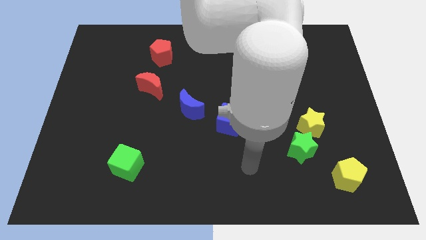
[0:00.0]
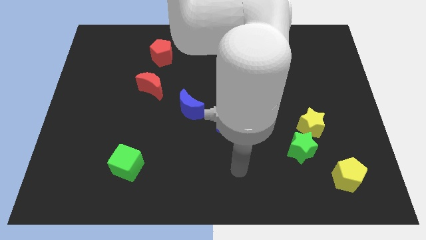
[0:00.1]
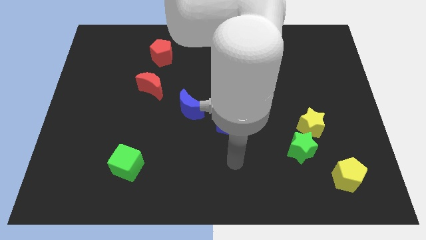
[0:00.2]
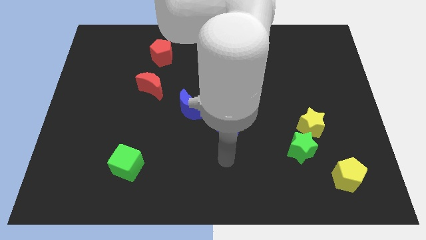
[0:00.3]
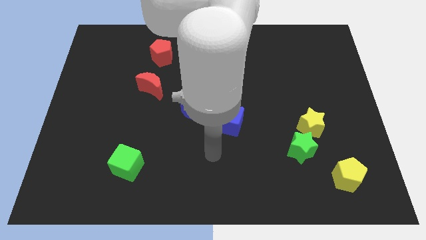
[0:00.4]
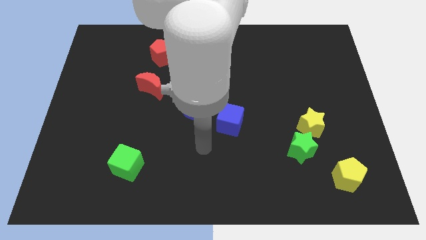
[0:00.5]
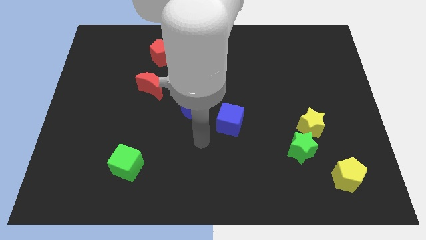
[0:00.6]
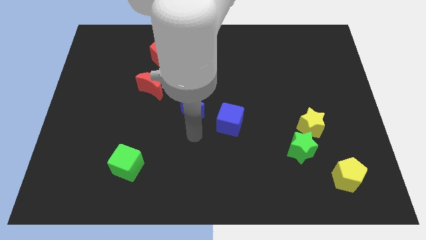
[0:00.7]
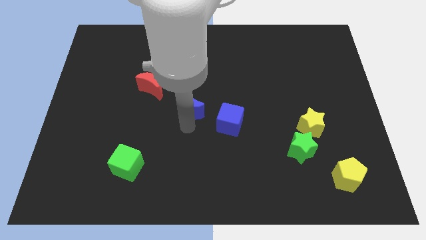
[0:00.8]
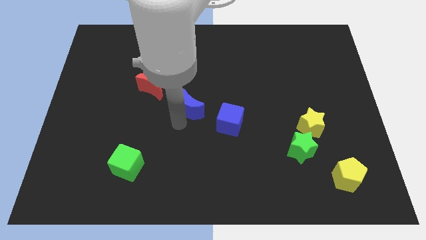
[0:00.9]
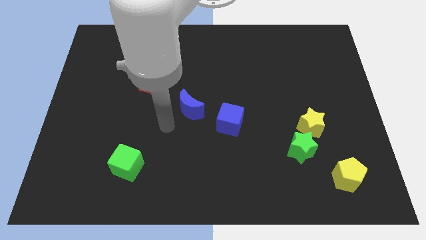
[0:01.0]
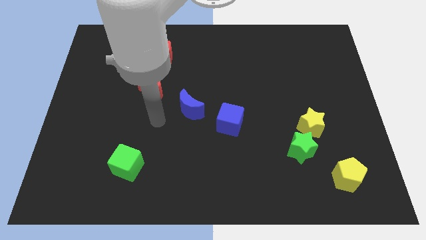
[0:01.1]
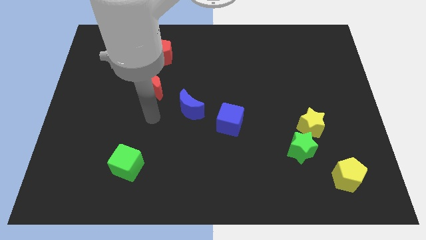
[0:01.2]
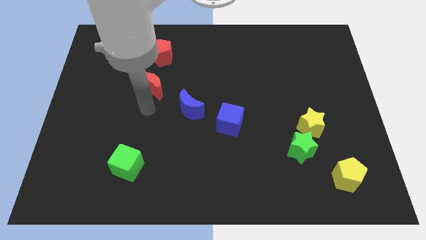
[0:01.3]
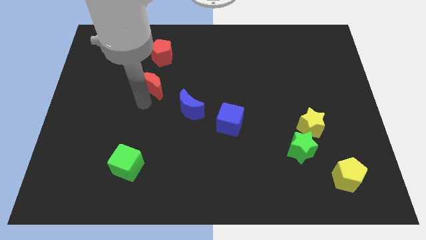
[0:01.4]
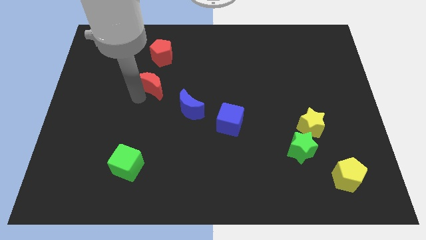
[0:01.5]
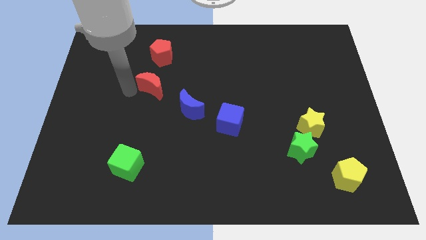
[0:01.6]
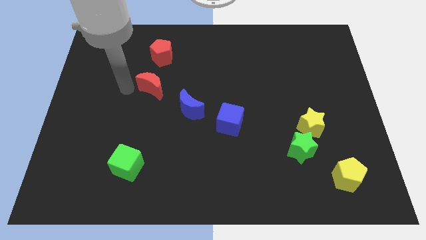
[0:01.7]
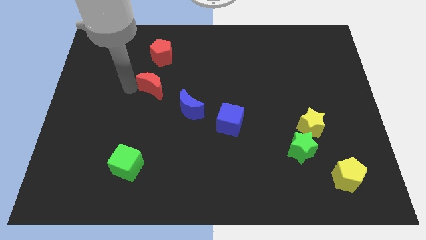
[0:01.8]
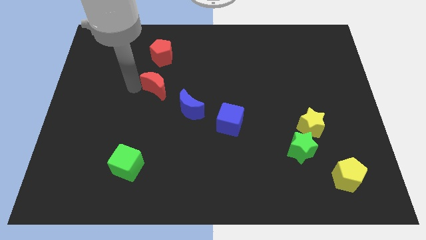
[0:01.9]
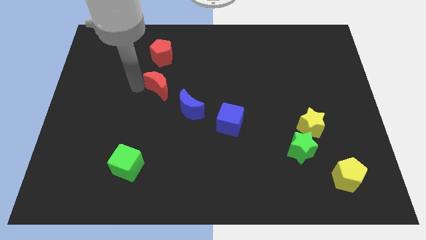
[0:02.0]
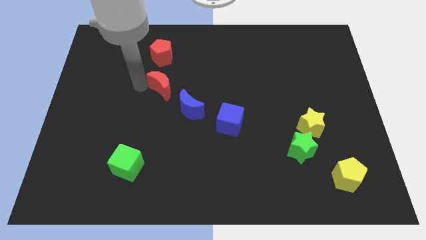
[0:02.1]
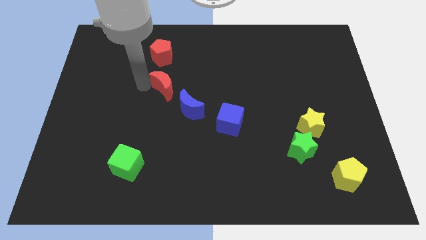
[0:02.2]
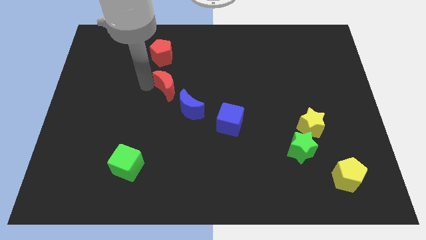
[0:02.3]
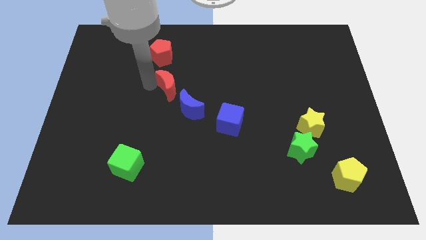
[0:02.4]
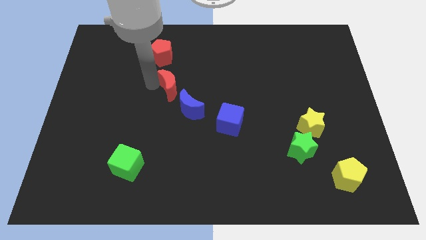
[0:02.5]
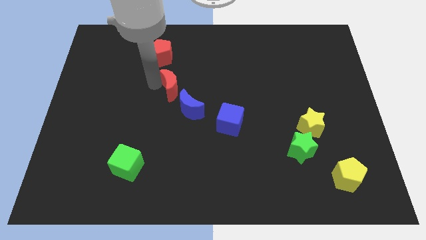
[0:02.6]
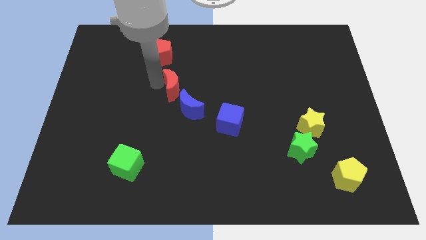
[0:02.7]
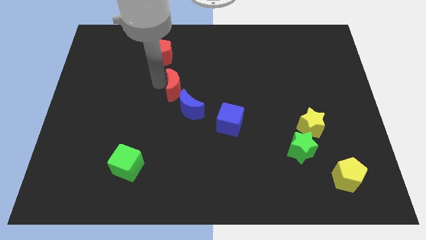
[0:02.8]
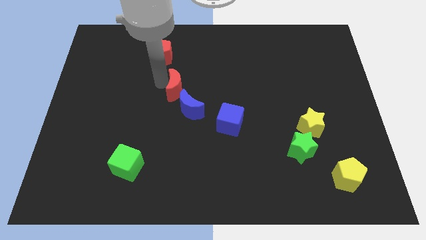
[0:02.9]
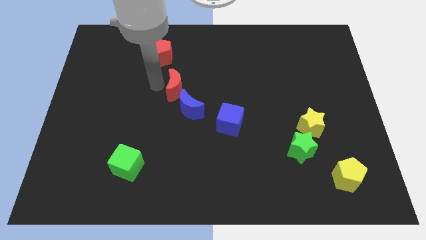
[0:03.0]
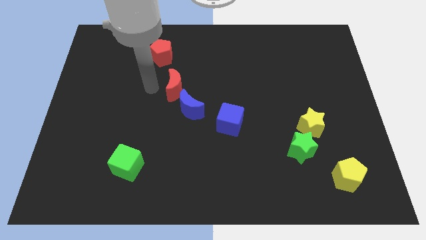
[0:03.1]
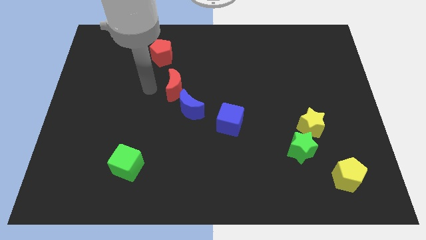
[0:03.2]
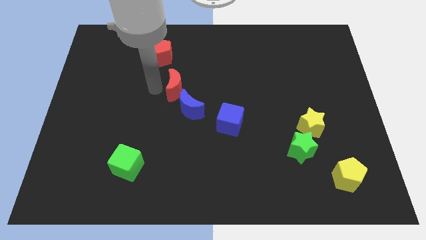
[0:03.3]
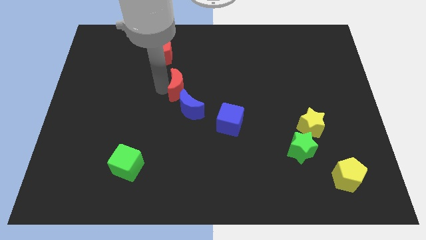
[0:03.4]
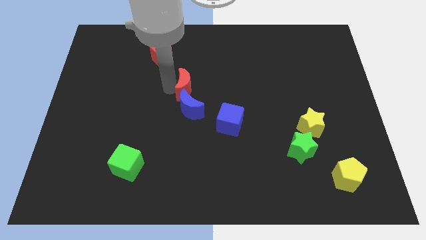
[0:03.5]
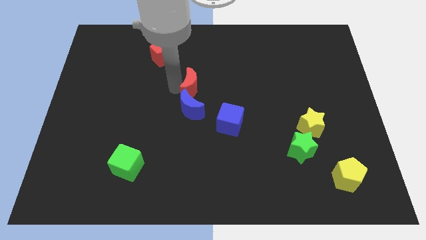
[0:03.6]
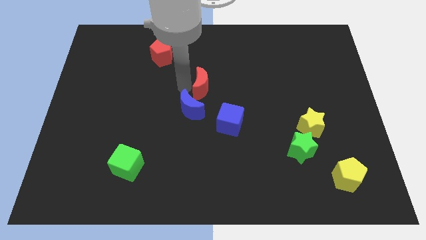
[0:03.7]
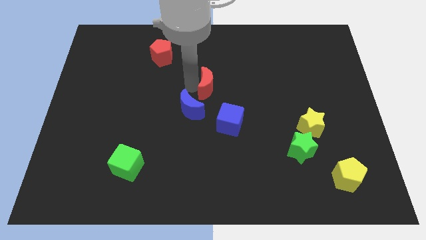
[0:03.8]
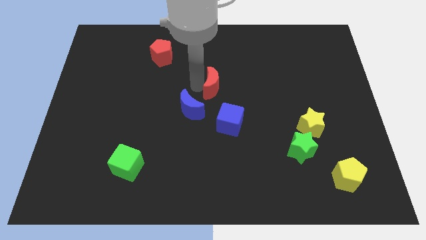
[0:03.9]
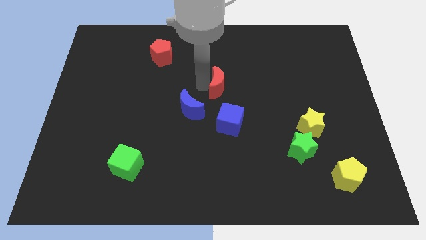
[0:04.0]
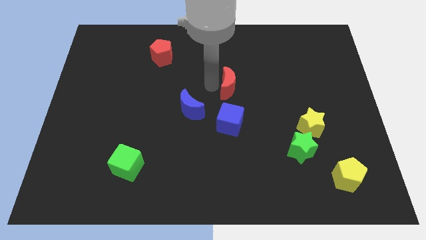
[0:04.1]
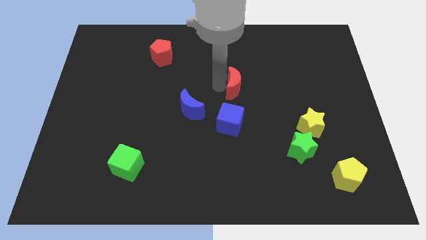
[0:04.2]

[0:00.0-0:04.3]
move the red moon right

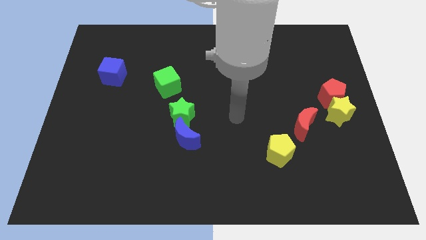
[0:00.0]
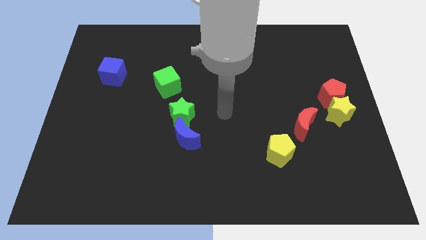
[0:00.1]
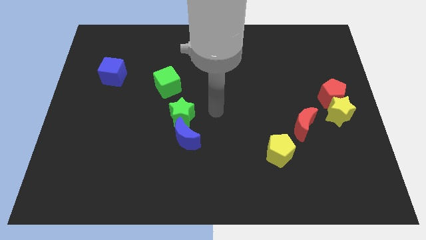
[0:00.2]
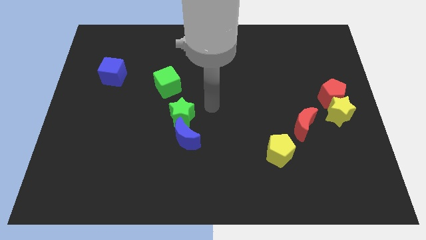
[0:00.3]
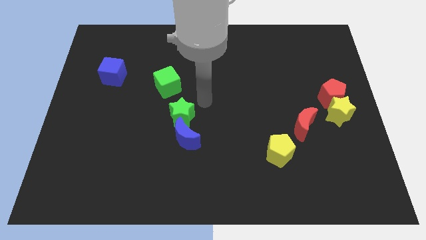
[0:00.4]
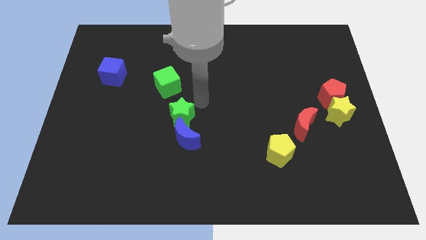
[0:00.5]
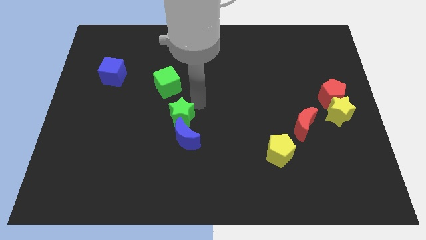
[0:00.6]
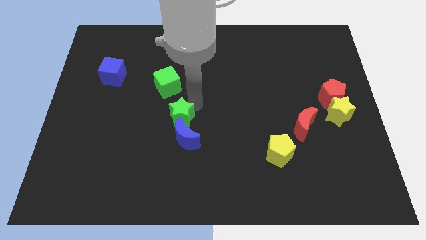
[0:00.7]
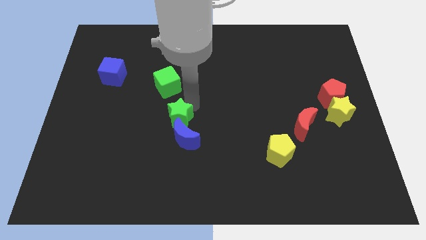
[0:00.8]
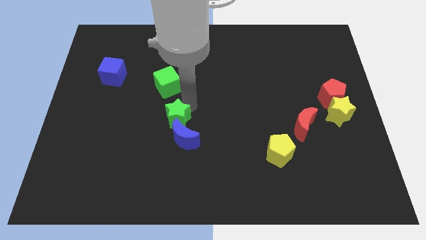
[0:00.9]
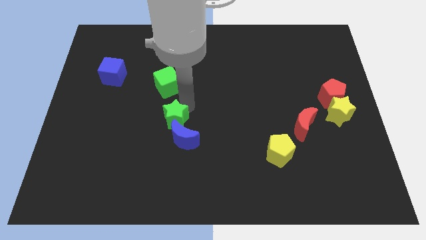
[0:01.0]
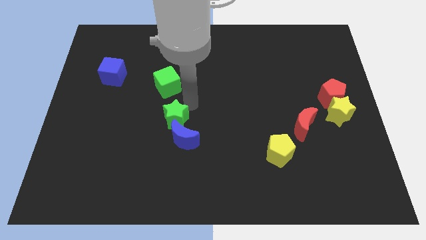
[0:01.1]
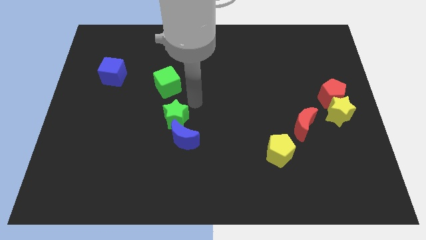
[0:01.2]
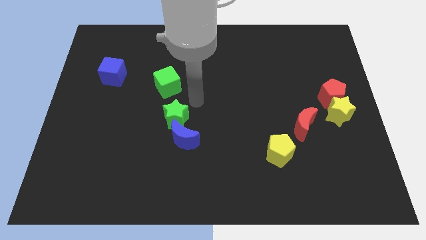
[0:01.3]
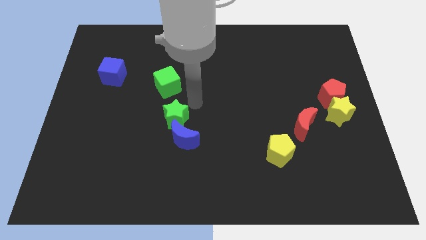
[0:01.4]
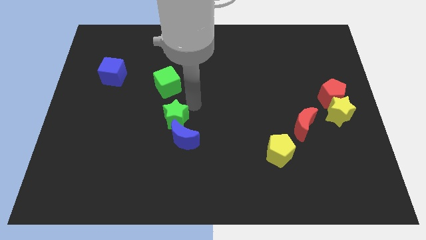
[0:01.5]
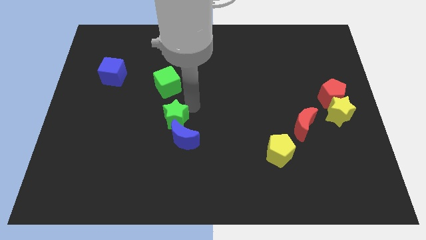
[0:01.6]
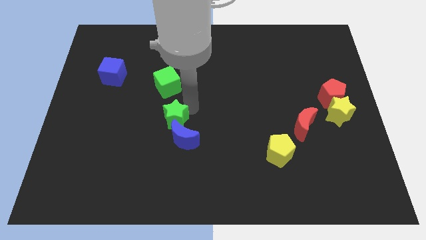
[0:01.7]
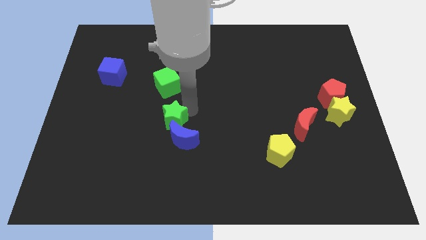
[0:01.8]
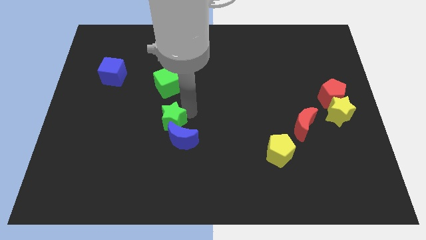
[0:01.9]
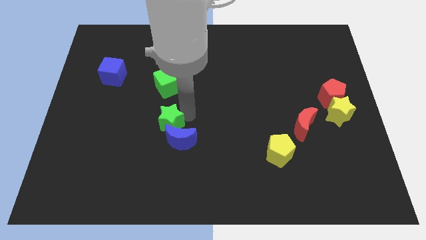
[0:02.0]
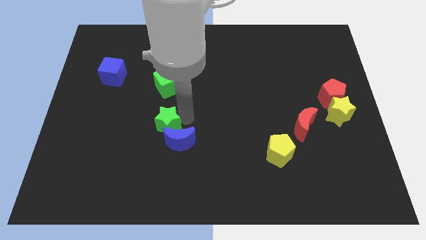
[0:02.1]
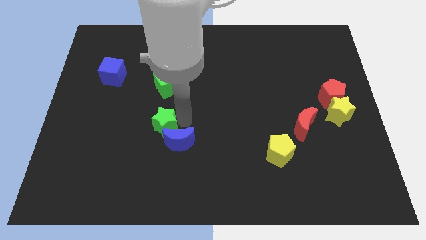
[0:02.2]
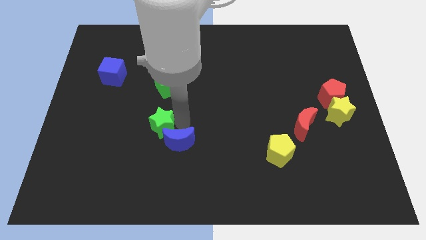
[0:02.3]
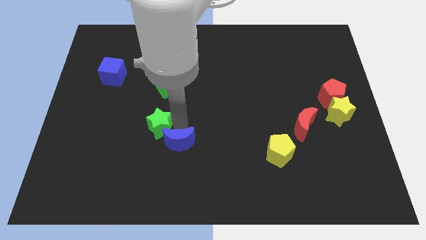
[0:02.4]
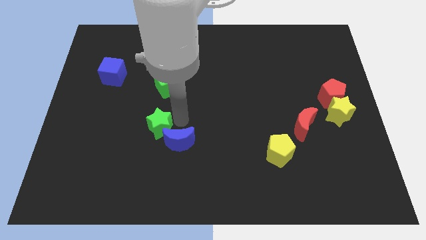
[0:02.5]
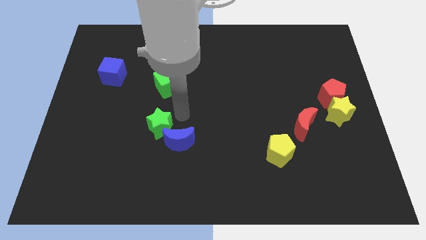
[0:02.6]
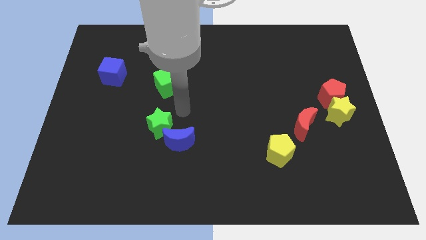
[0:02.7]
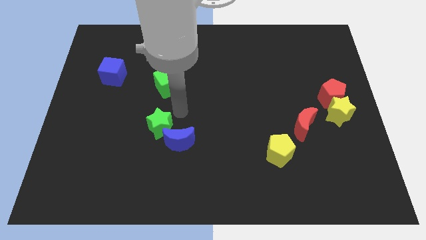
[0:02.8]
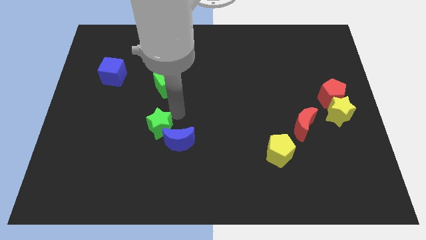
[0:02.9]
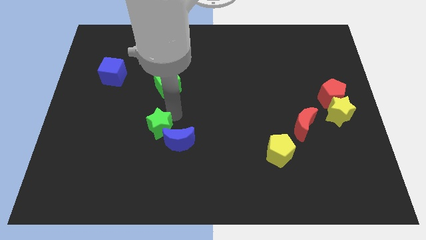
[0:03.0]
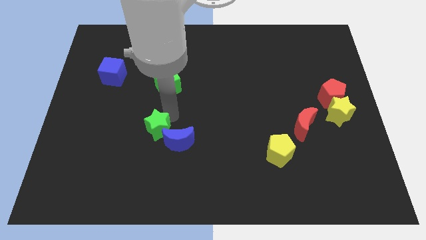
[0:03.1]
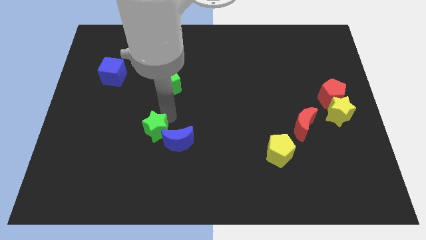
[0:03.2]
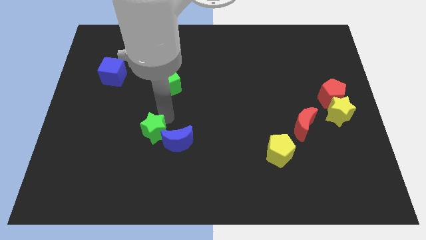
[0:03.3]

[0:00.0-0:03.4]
slide the green star down and to the left slightly
